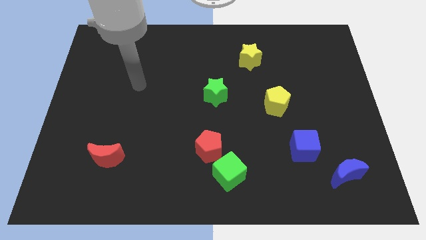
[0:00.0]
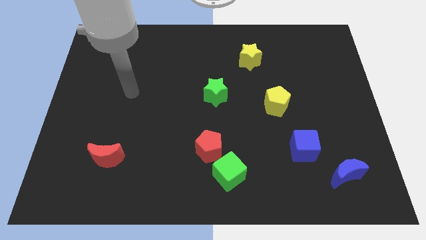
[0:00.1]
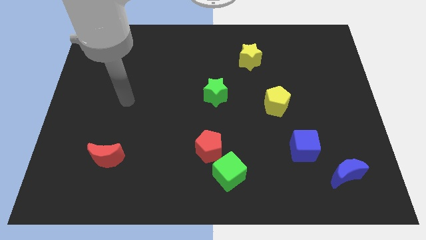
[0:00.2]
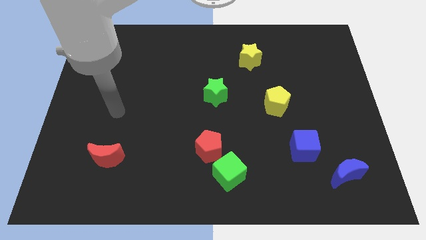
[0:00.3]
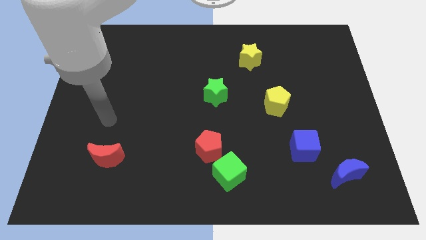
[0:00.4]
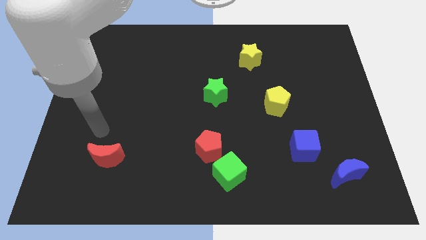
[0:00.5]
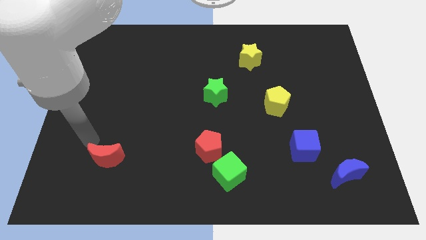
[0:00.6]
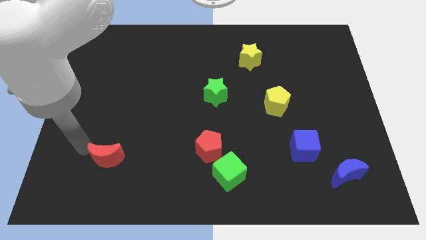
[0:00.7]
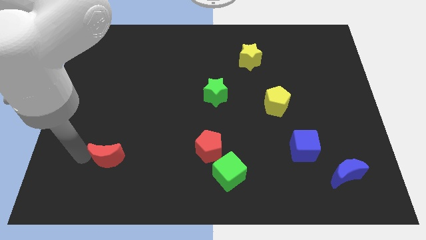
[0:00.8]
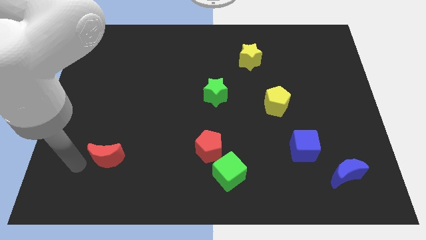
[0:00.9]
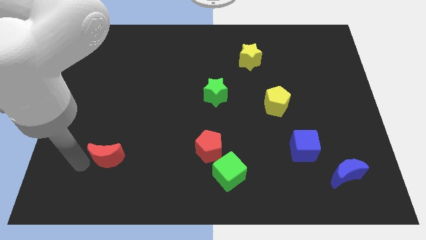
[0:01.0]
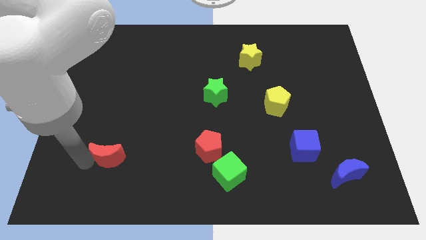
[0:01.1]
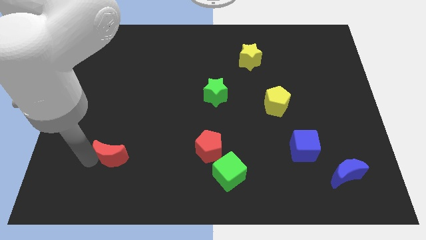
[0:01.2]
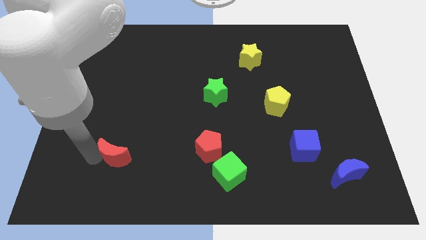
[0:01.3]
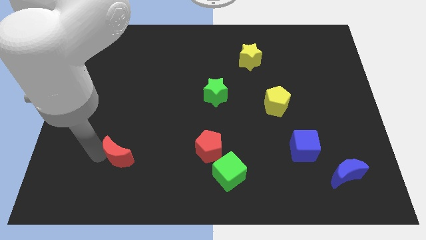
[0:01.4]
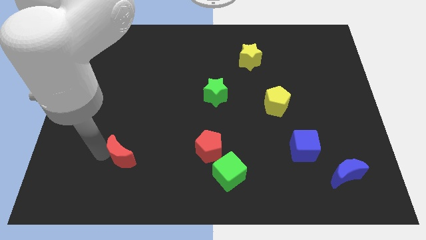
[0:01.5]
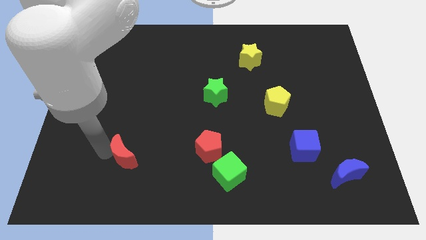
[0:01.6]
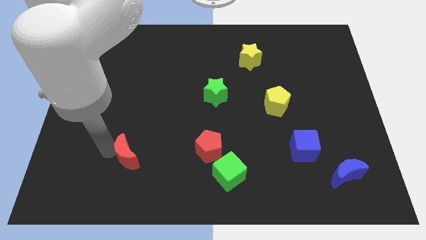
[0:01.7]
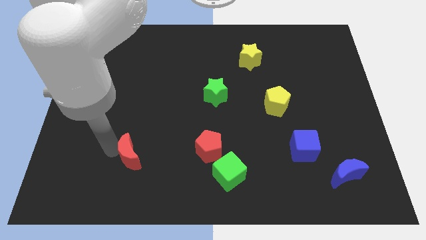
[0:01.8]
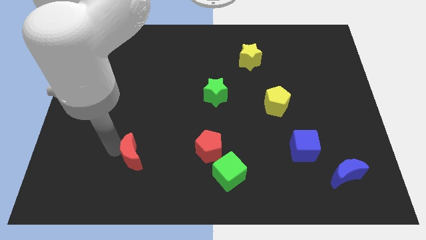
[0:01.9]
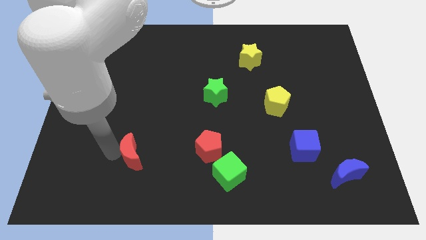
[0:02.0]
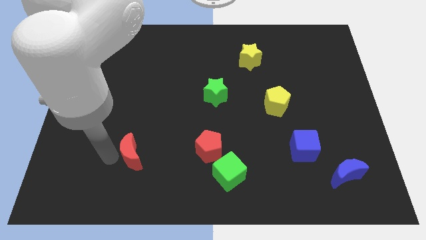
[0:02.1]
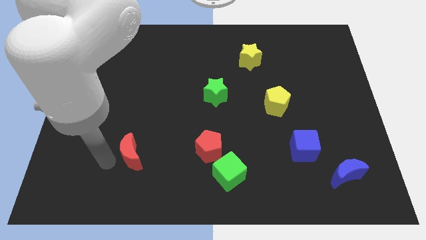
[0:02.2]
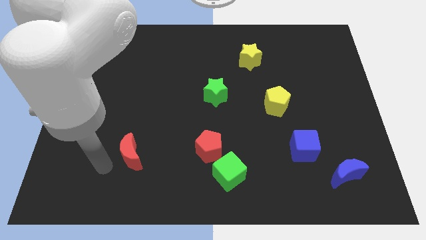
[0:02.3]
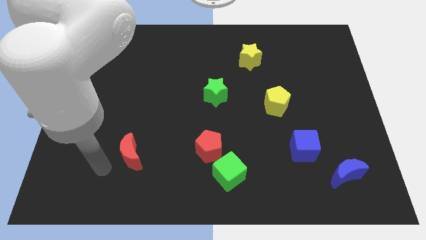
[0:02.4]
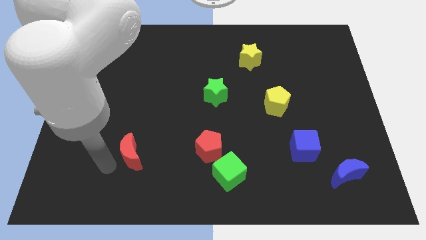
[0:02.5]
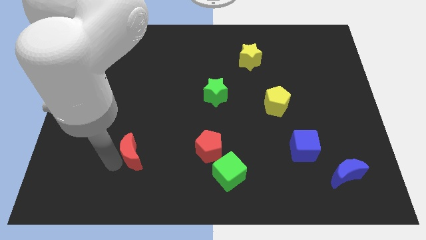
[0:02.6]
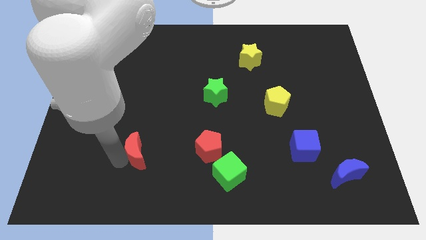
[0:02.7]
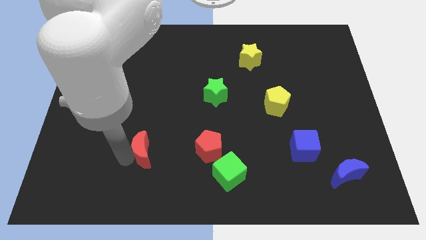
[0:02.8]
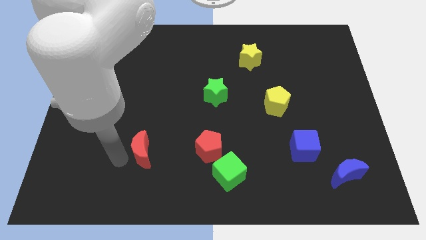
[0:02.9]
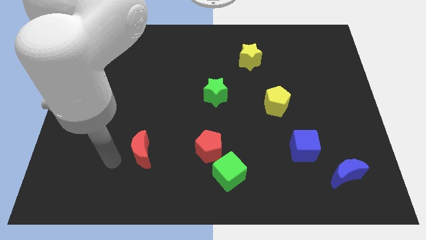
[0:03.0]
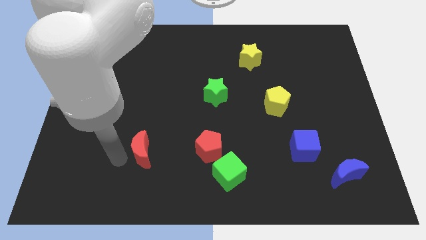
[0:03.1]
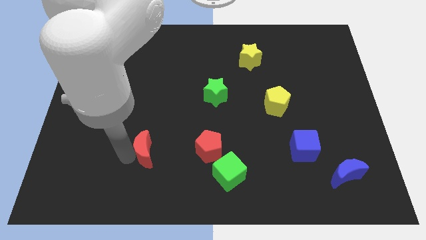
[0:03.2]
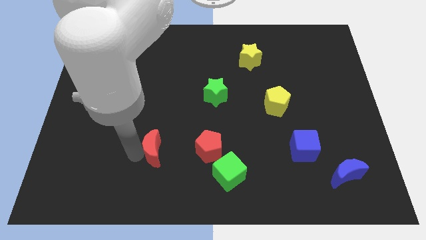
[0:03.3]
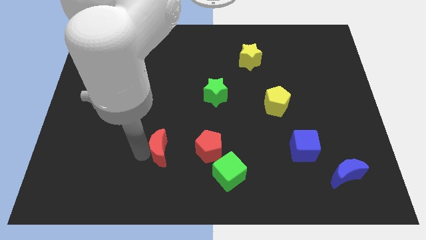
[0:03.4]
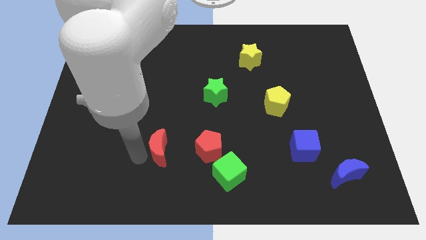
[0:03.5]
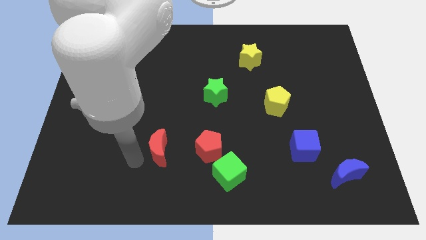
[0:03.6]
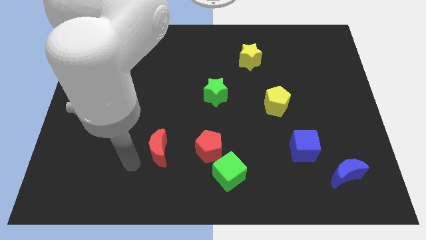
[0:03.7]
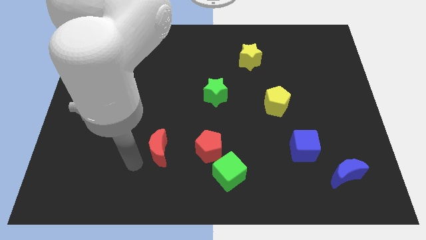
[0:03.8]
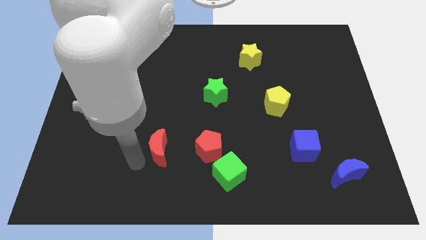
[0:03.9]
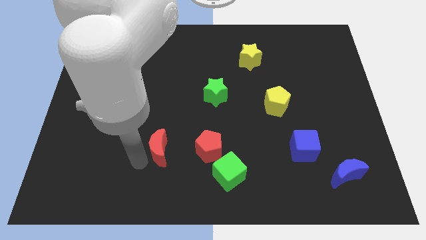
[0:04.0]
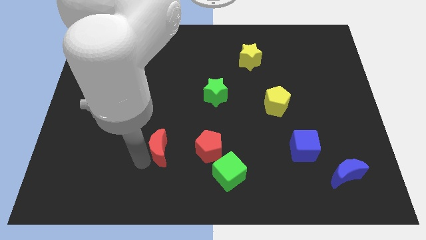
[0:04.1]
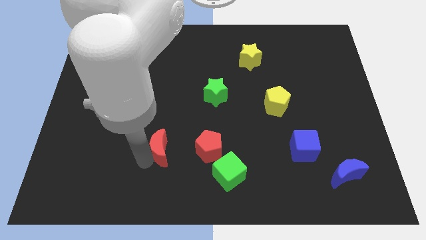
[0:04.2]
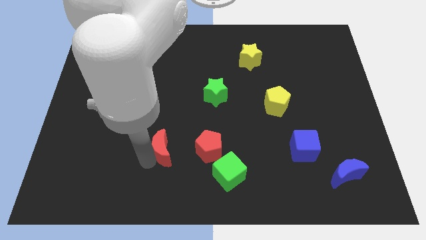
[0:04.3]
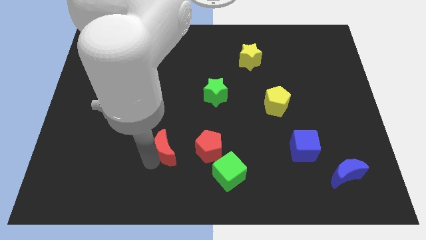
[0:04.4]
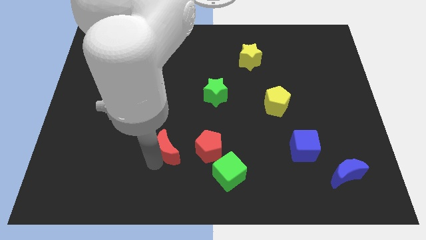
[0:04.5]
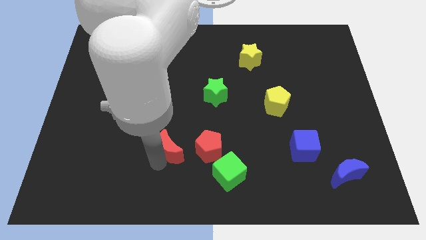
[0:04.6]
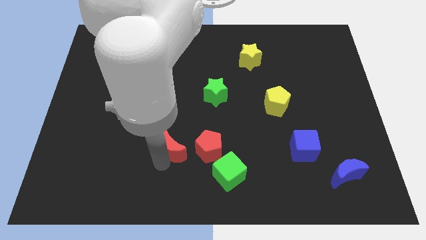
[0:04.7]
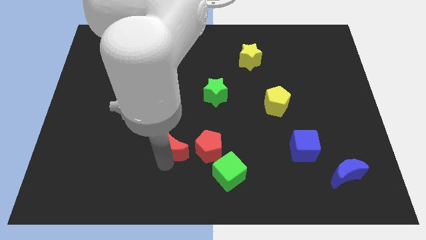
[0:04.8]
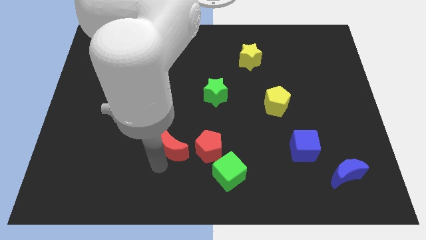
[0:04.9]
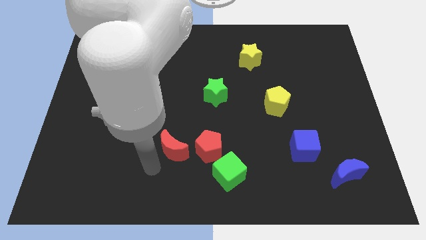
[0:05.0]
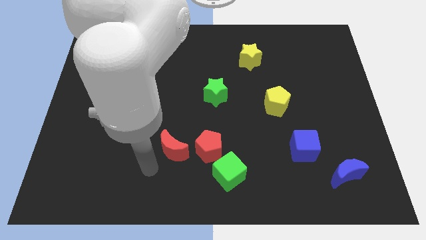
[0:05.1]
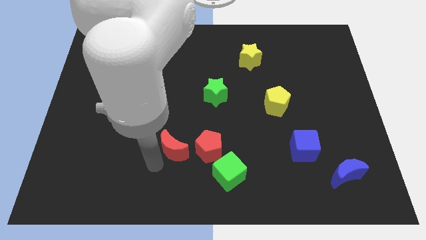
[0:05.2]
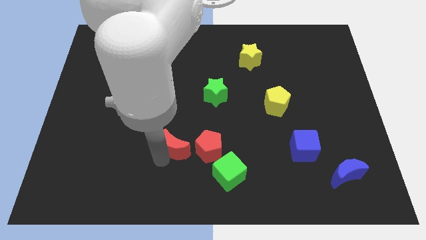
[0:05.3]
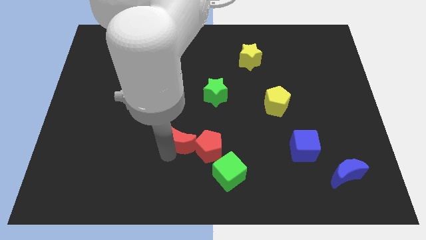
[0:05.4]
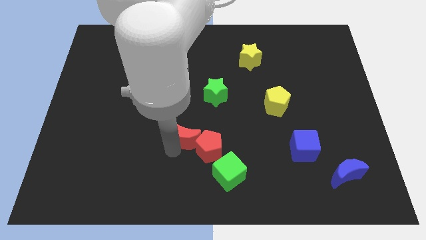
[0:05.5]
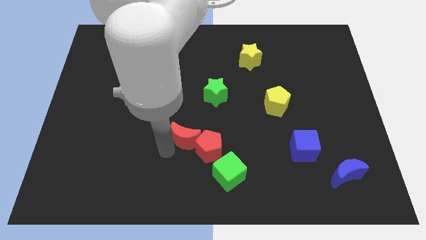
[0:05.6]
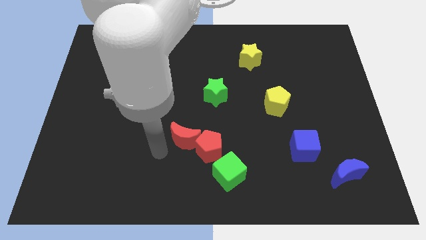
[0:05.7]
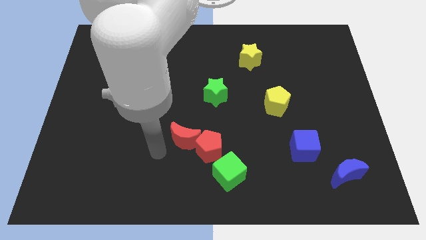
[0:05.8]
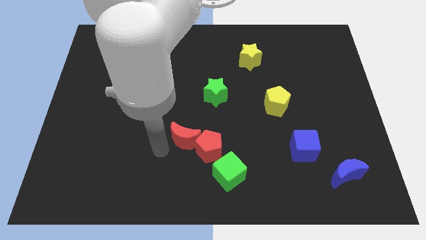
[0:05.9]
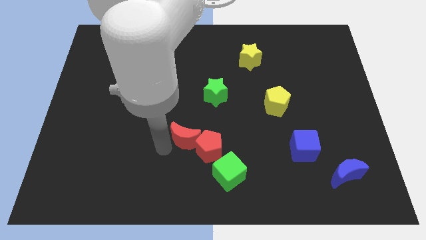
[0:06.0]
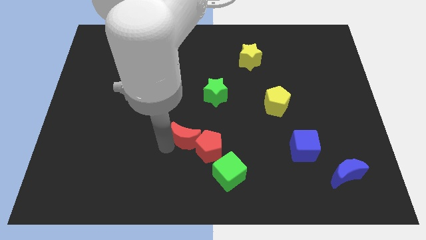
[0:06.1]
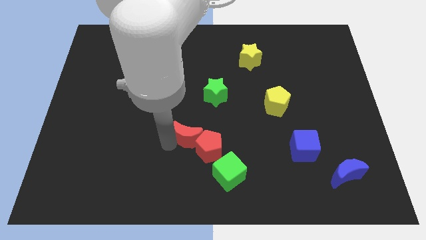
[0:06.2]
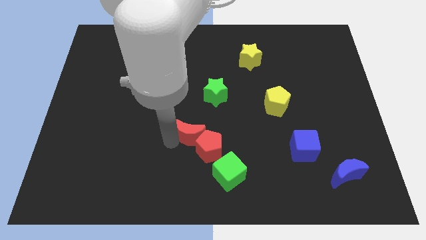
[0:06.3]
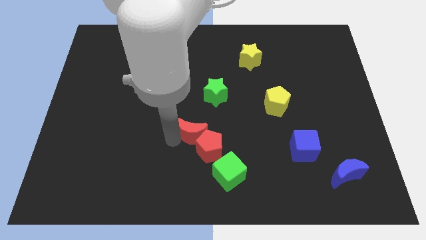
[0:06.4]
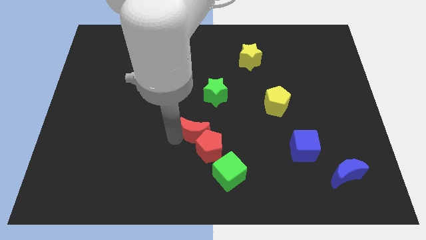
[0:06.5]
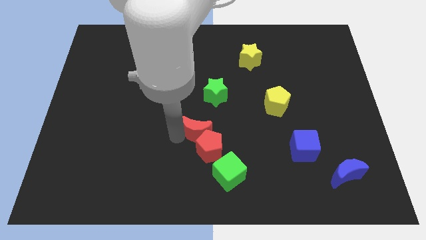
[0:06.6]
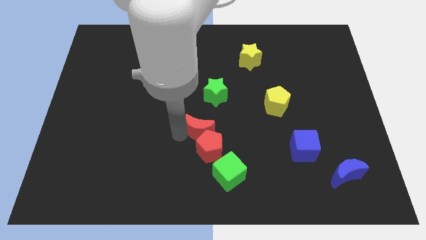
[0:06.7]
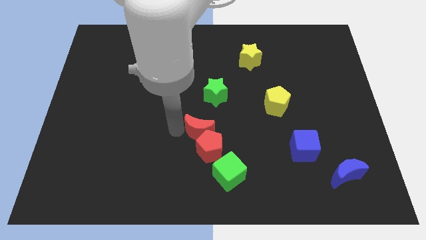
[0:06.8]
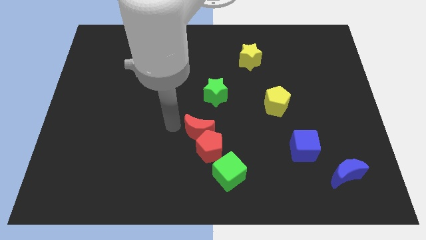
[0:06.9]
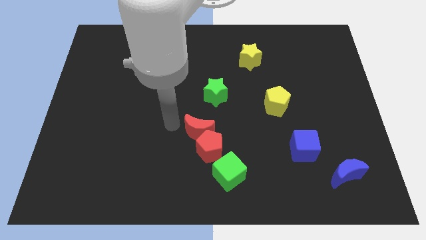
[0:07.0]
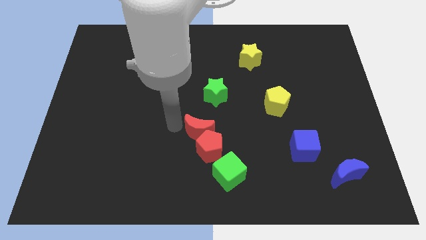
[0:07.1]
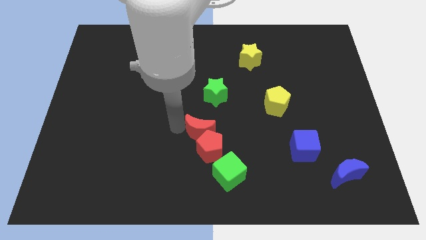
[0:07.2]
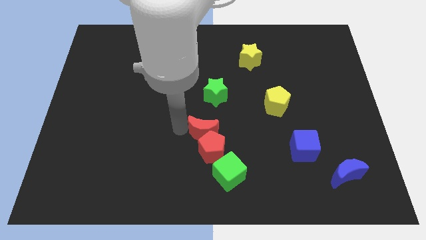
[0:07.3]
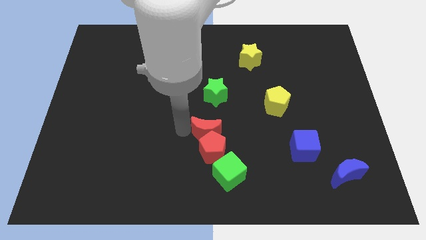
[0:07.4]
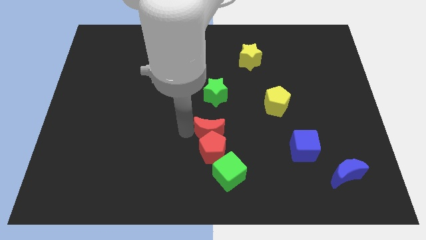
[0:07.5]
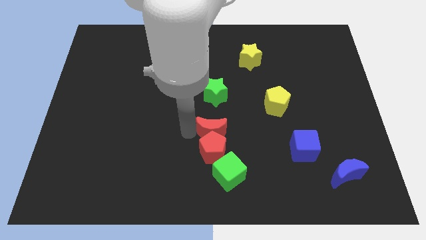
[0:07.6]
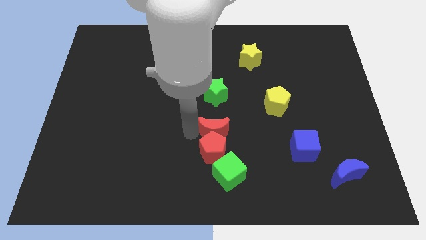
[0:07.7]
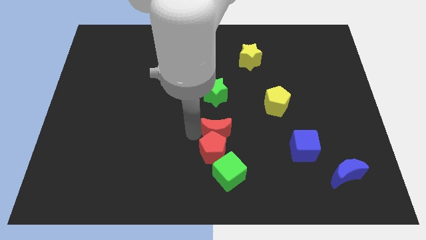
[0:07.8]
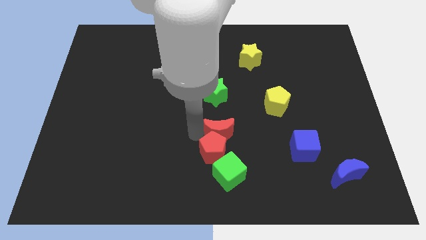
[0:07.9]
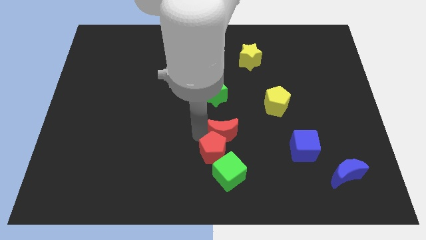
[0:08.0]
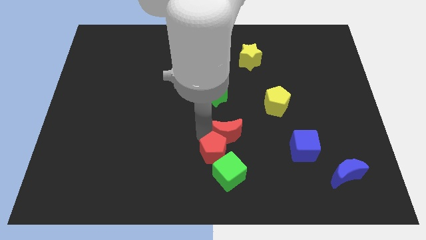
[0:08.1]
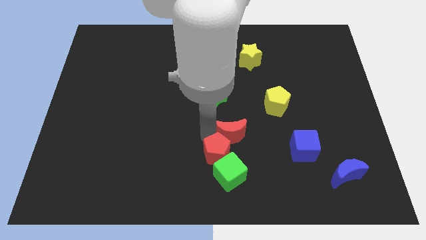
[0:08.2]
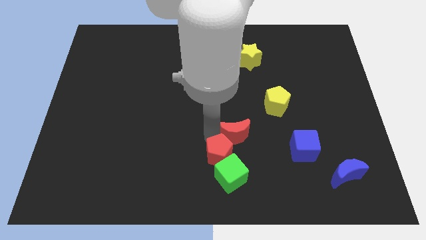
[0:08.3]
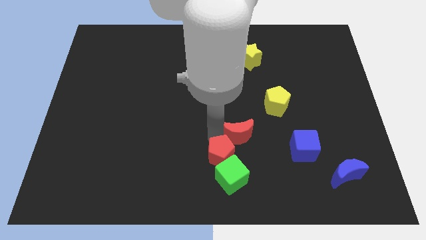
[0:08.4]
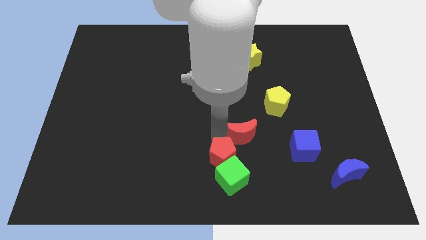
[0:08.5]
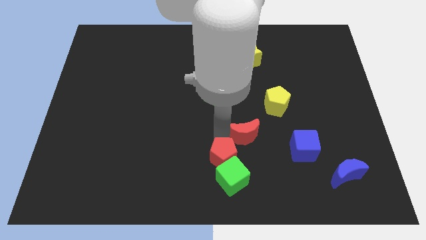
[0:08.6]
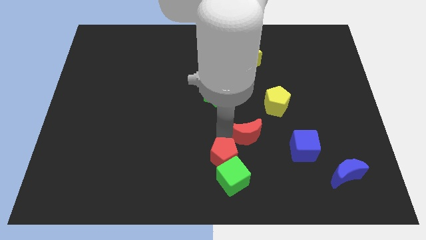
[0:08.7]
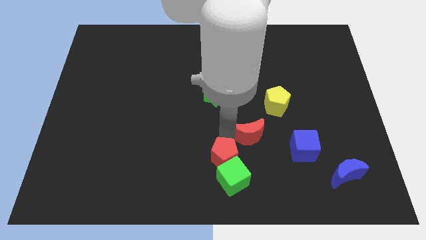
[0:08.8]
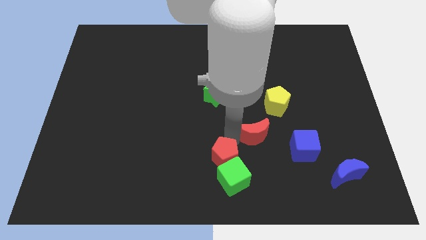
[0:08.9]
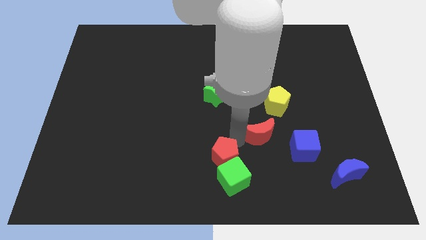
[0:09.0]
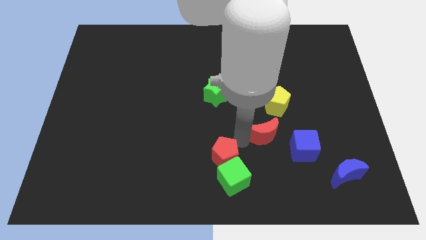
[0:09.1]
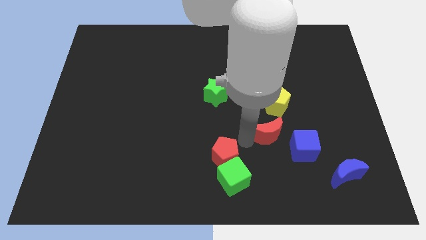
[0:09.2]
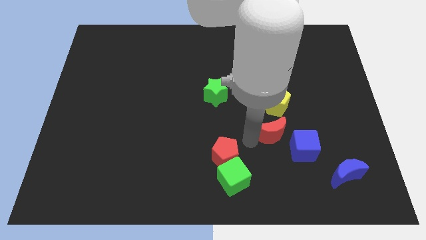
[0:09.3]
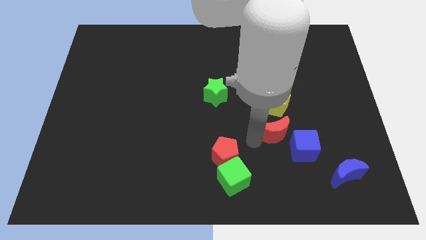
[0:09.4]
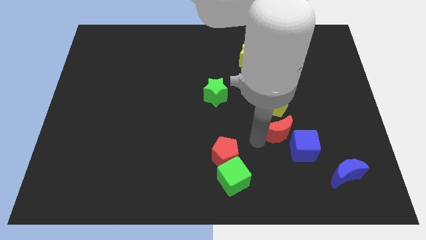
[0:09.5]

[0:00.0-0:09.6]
slide the red moon next to the blue cube
